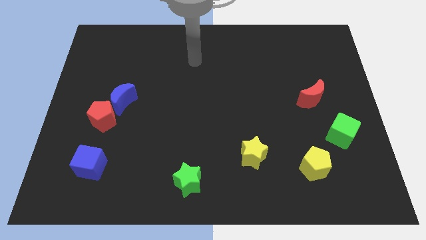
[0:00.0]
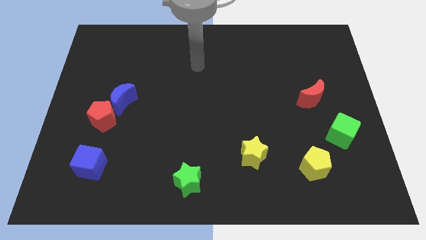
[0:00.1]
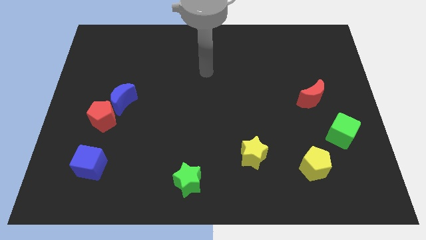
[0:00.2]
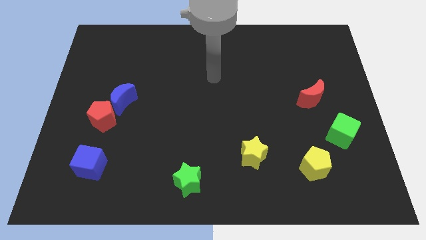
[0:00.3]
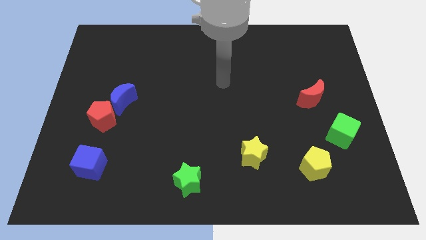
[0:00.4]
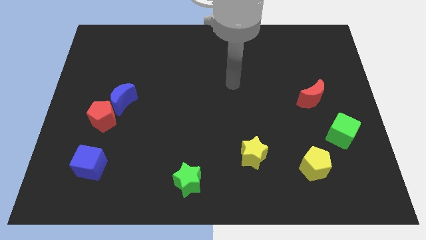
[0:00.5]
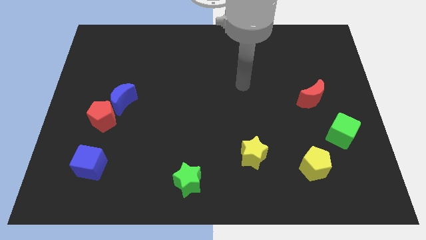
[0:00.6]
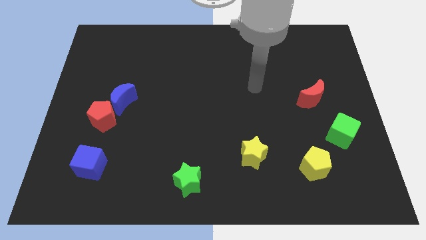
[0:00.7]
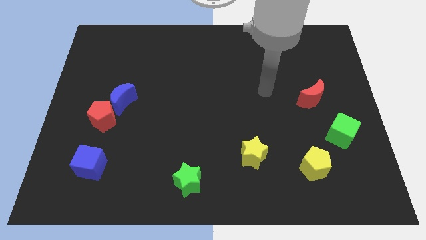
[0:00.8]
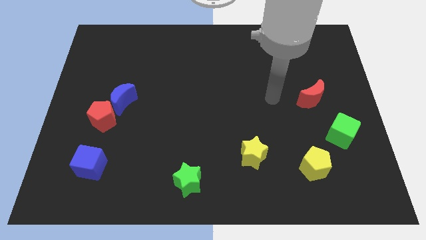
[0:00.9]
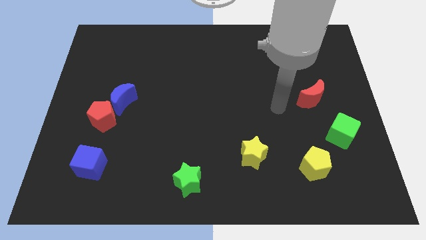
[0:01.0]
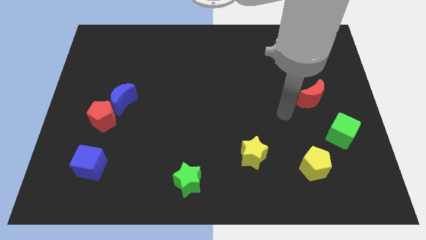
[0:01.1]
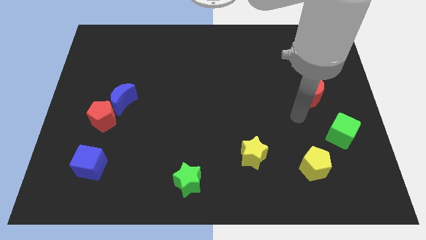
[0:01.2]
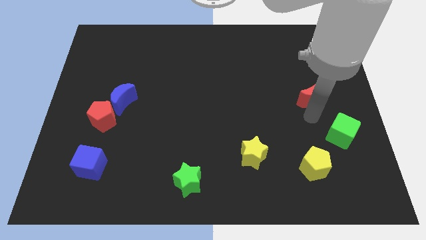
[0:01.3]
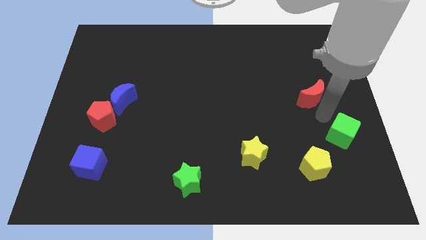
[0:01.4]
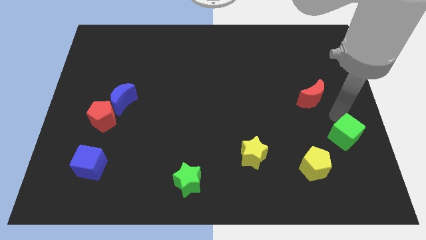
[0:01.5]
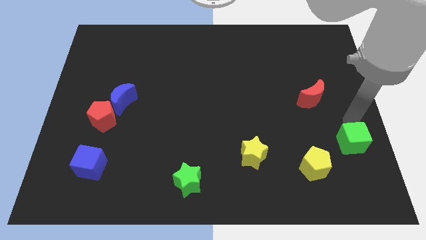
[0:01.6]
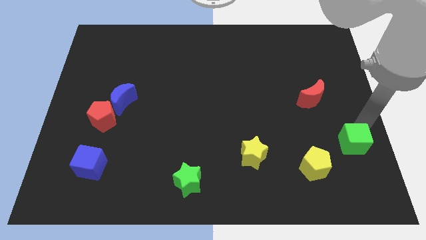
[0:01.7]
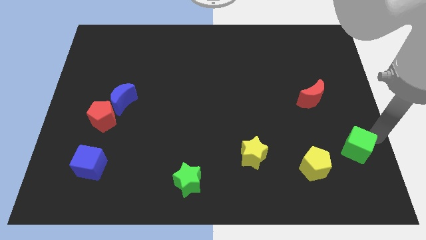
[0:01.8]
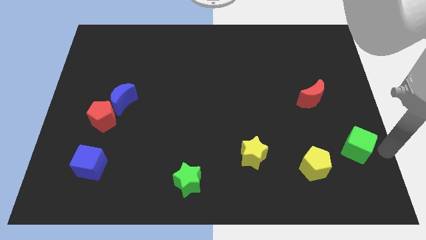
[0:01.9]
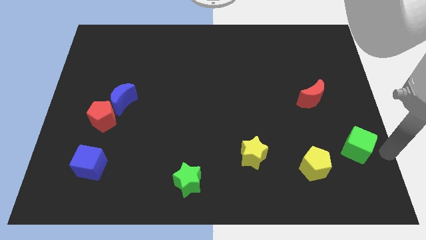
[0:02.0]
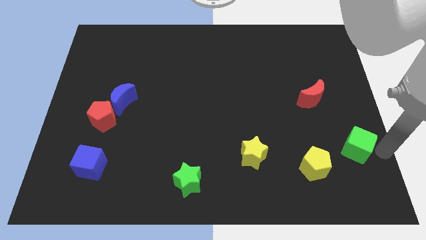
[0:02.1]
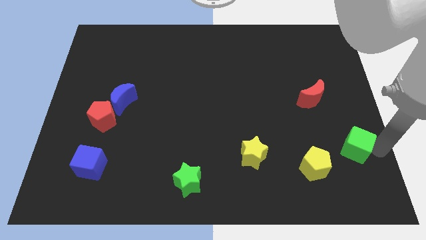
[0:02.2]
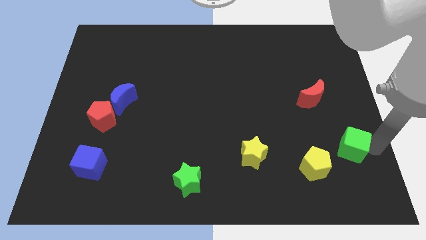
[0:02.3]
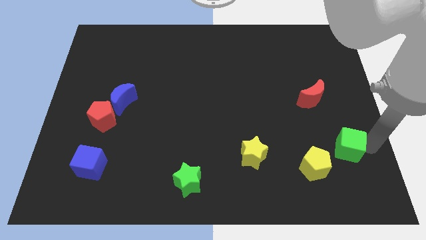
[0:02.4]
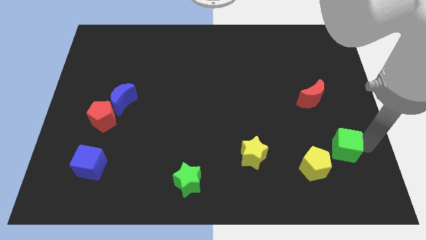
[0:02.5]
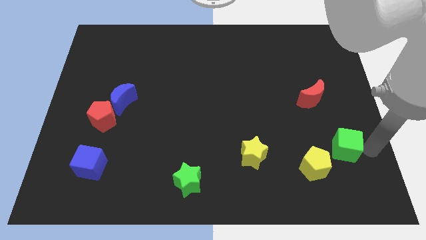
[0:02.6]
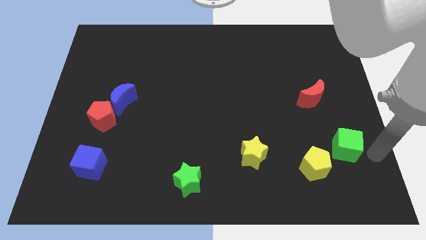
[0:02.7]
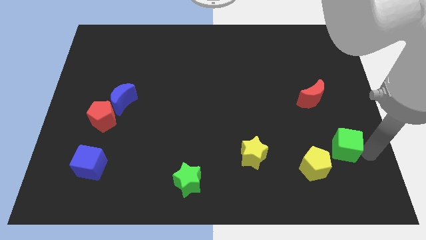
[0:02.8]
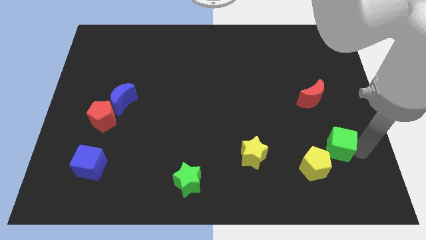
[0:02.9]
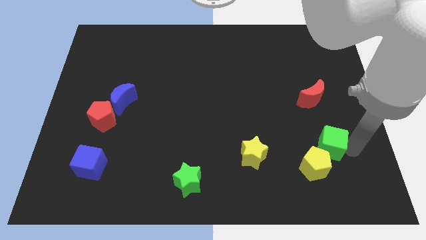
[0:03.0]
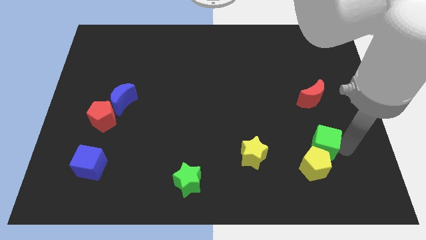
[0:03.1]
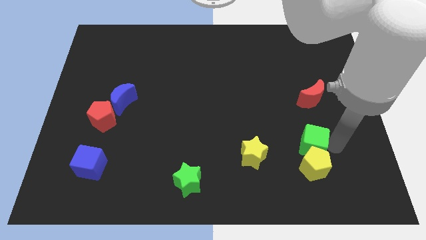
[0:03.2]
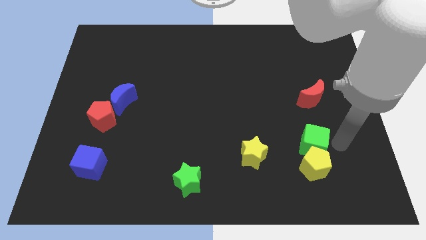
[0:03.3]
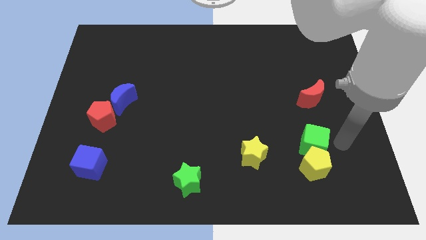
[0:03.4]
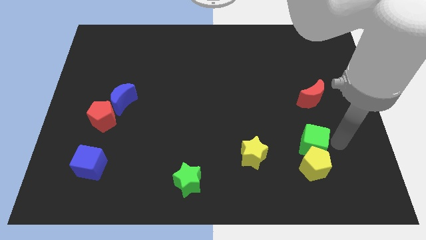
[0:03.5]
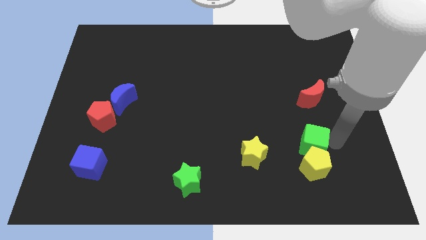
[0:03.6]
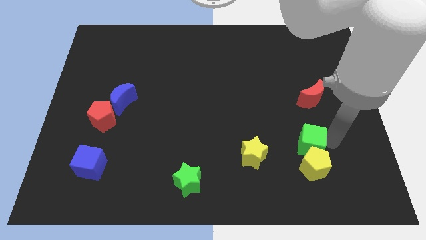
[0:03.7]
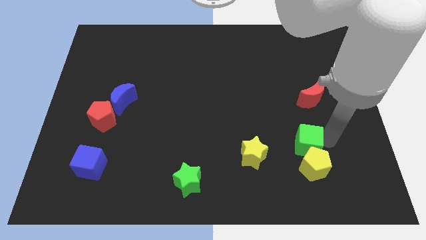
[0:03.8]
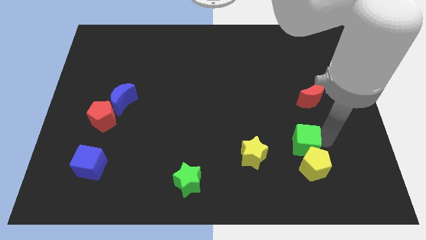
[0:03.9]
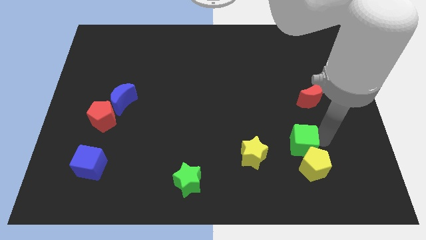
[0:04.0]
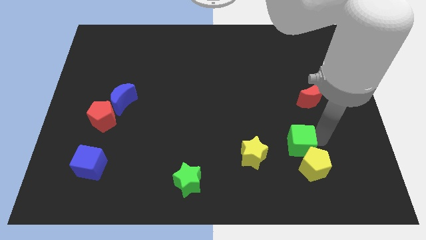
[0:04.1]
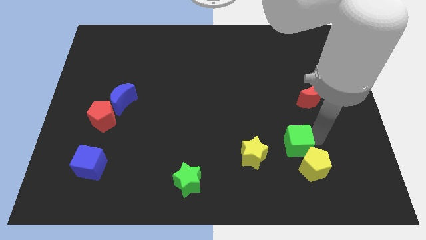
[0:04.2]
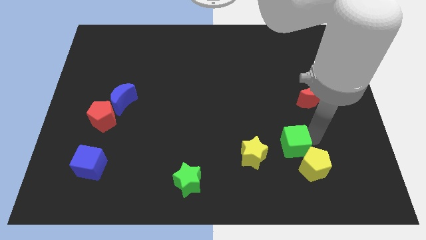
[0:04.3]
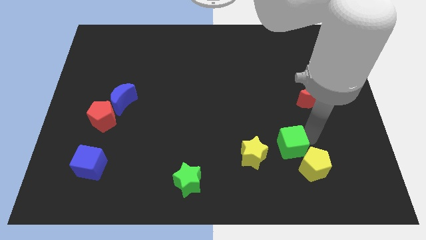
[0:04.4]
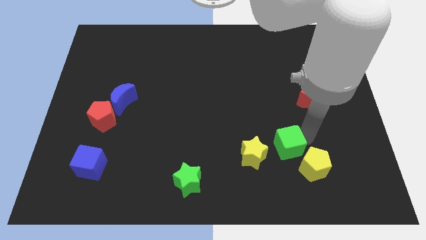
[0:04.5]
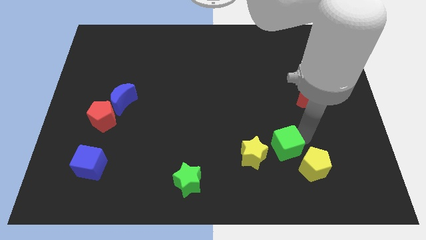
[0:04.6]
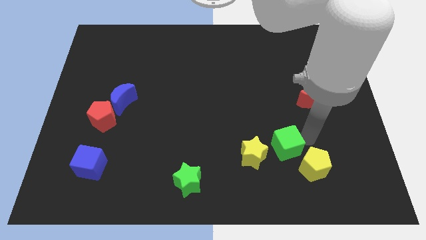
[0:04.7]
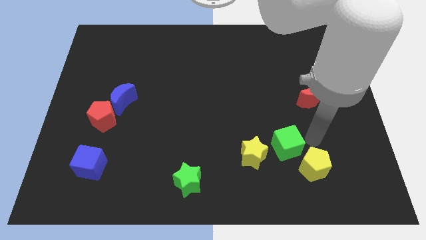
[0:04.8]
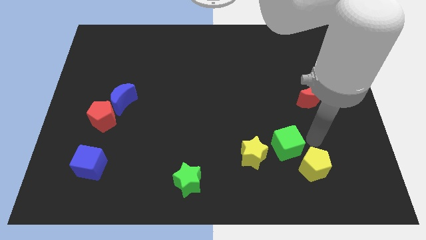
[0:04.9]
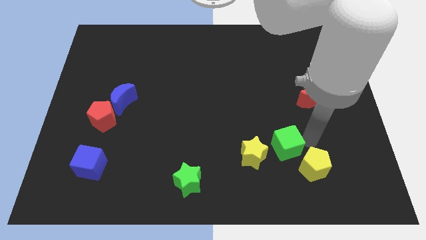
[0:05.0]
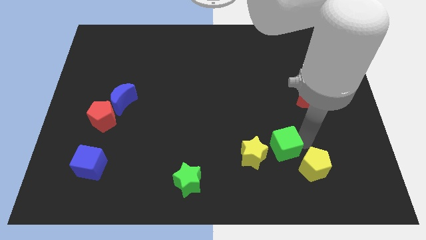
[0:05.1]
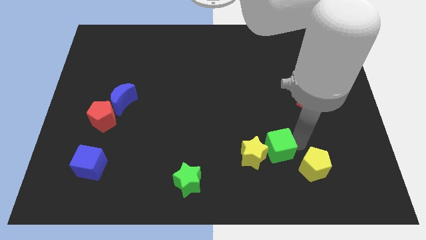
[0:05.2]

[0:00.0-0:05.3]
slide the green cube close to the yellow star

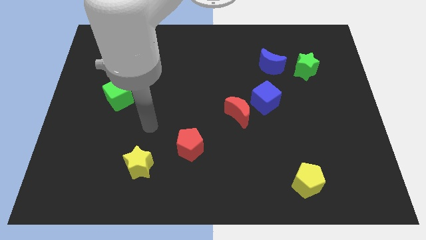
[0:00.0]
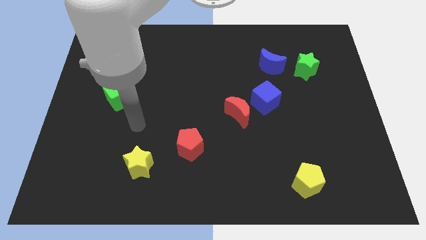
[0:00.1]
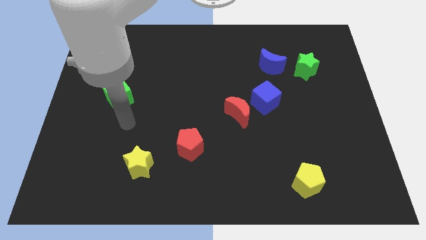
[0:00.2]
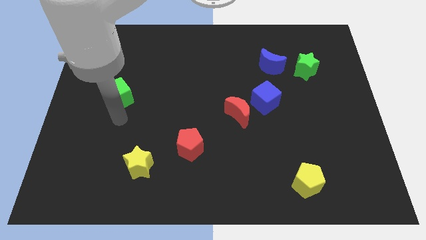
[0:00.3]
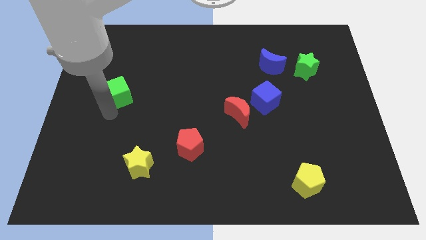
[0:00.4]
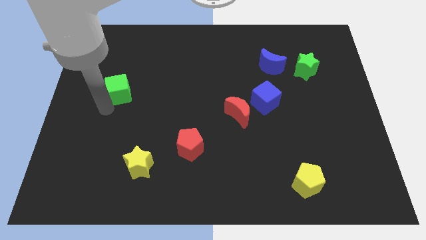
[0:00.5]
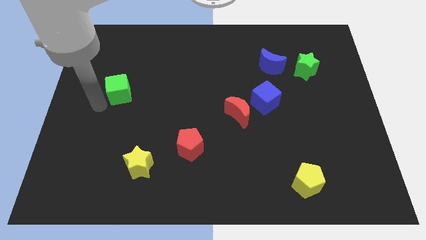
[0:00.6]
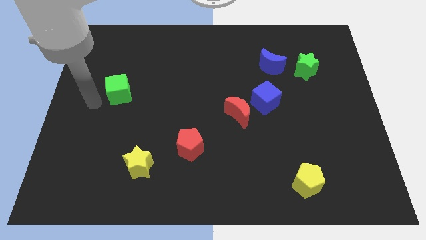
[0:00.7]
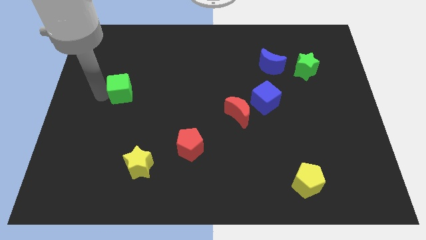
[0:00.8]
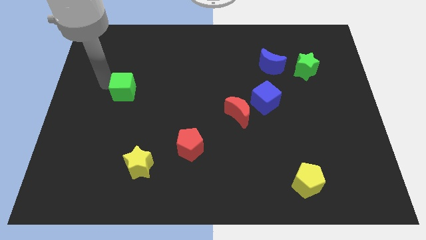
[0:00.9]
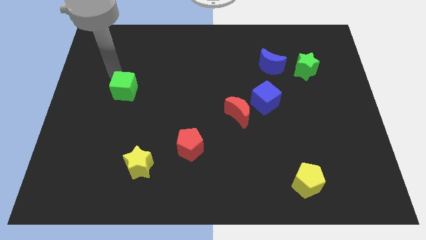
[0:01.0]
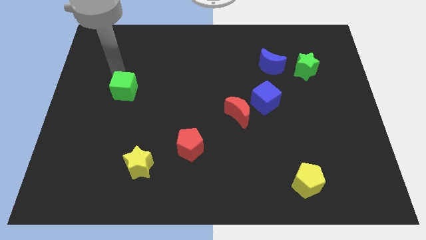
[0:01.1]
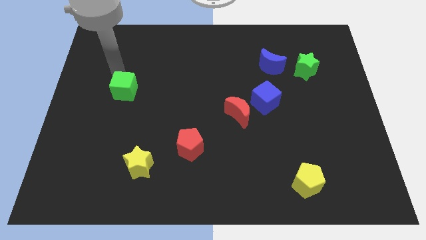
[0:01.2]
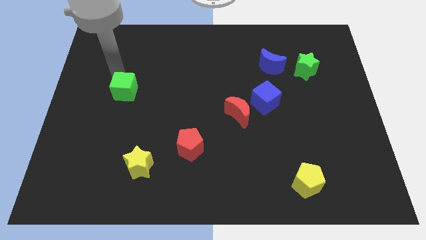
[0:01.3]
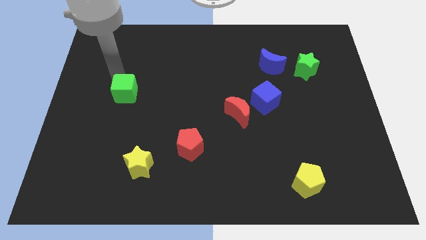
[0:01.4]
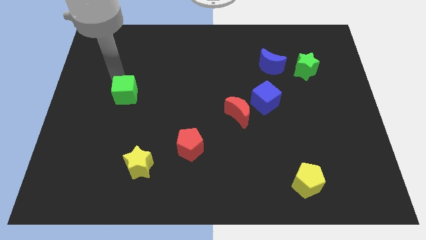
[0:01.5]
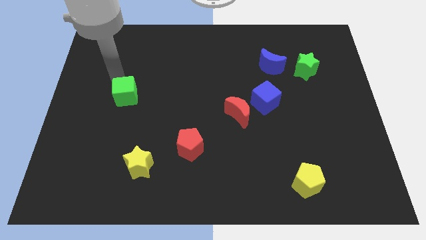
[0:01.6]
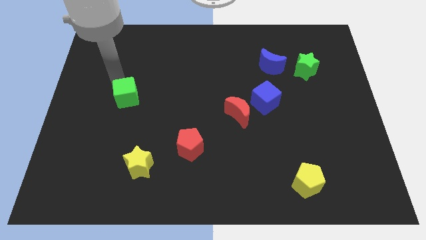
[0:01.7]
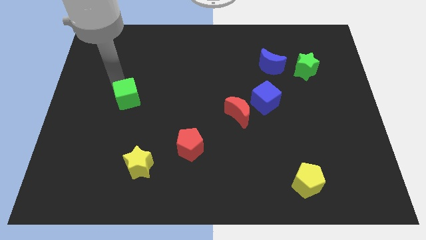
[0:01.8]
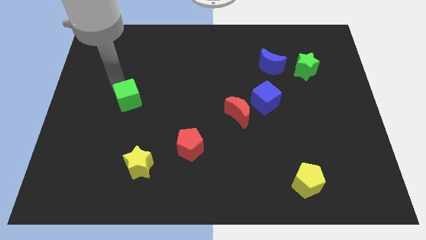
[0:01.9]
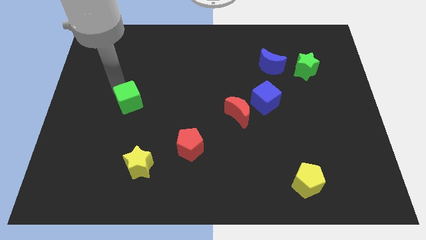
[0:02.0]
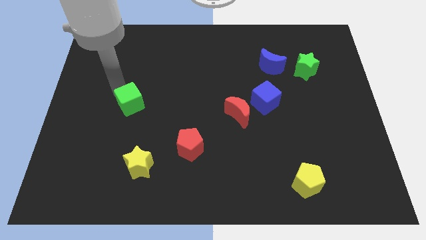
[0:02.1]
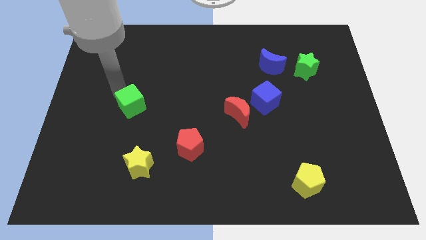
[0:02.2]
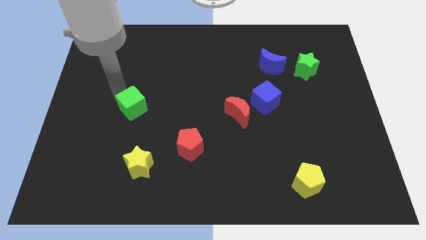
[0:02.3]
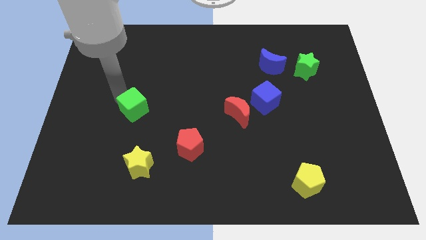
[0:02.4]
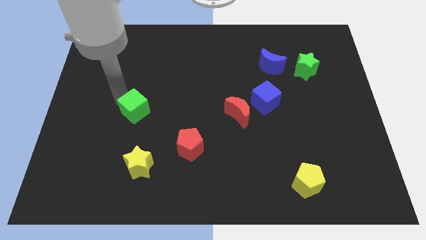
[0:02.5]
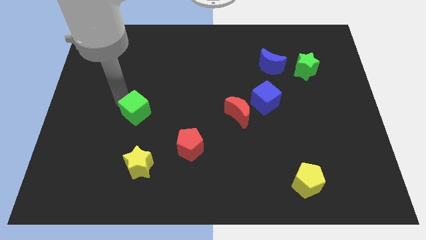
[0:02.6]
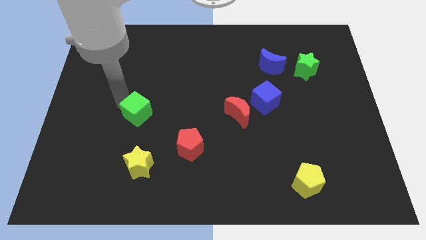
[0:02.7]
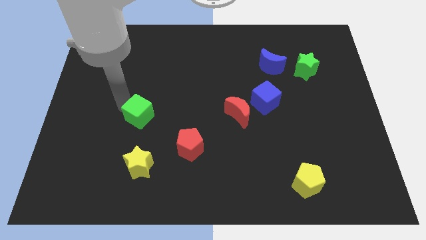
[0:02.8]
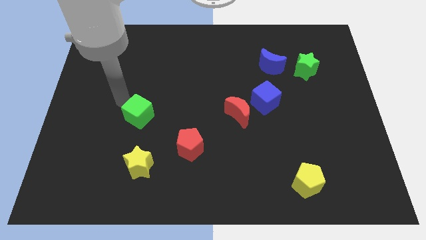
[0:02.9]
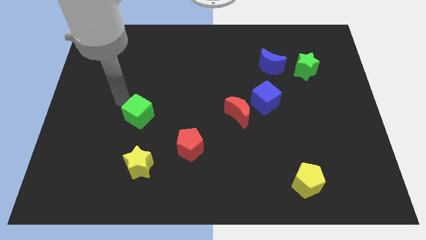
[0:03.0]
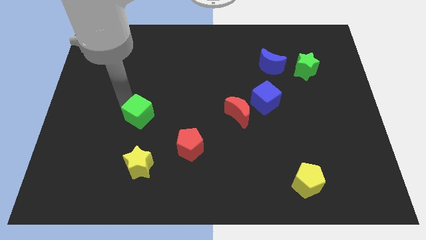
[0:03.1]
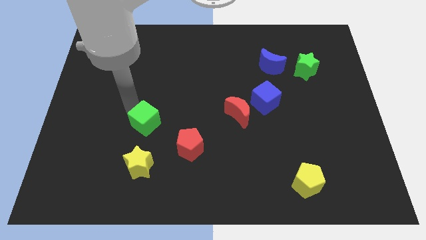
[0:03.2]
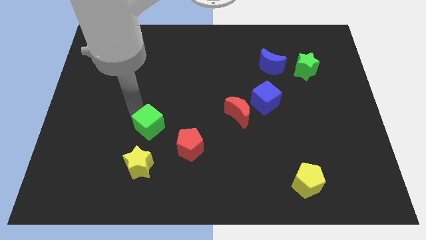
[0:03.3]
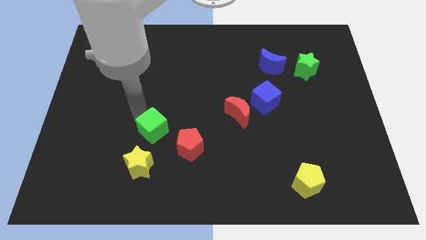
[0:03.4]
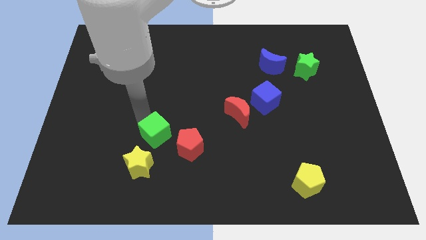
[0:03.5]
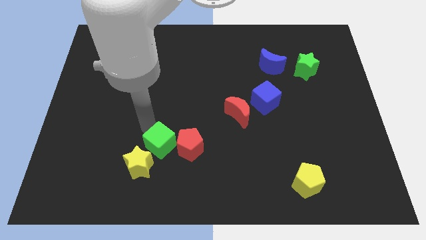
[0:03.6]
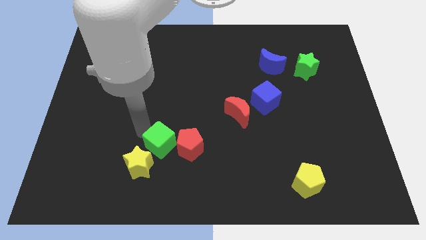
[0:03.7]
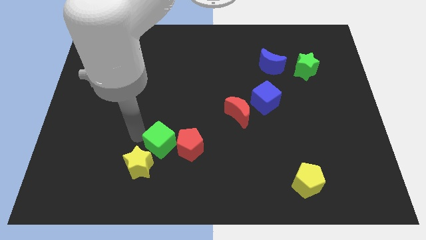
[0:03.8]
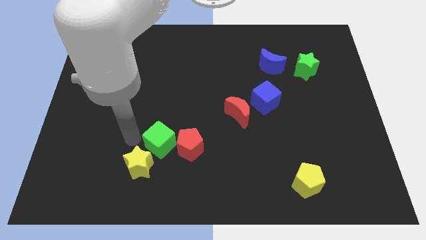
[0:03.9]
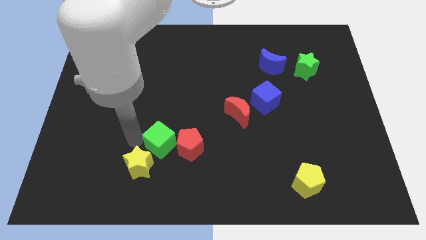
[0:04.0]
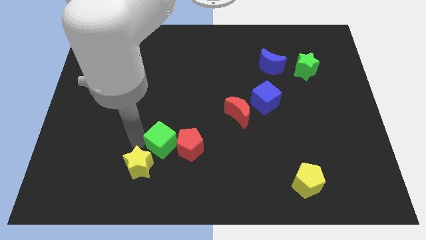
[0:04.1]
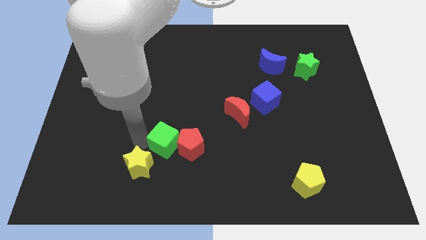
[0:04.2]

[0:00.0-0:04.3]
push the green cube next to the red pentagon
